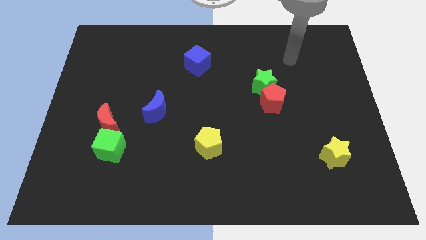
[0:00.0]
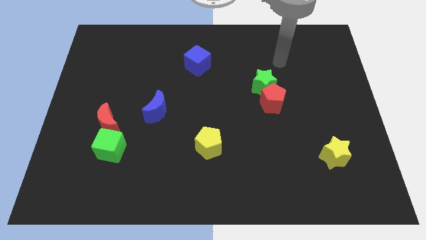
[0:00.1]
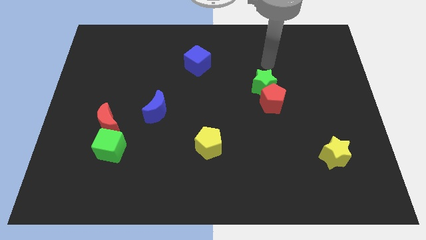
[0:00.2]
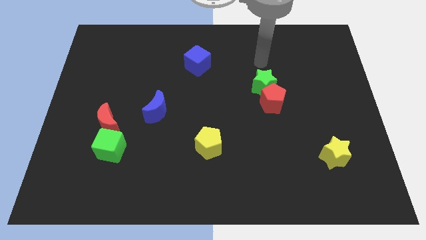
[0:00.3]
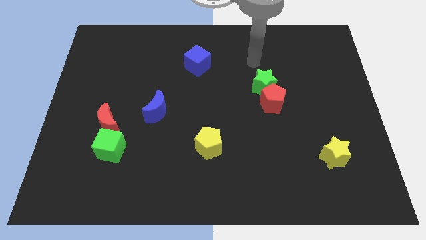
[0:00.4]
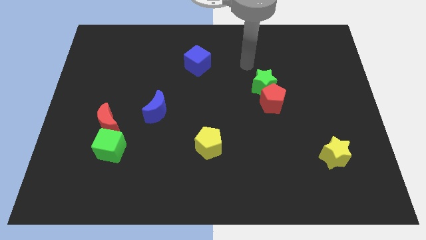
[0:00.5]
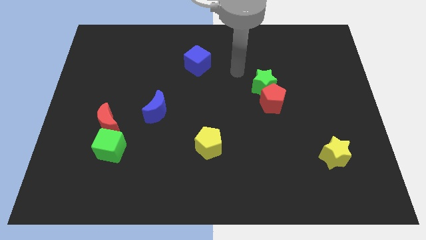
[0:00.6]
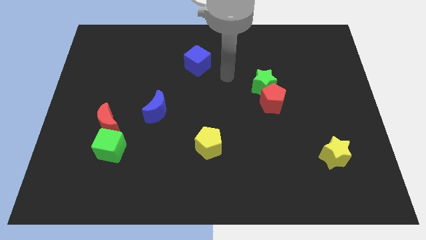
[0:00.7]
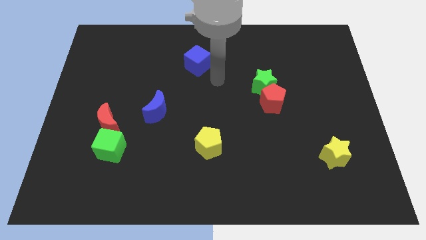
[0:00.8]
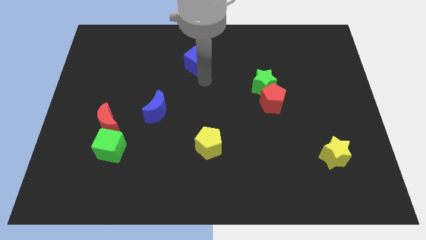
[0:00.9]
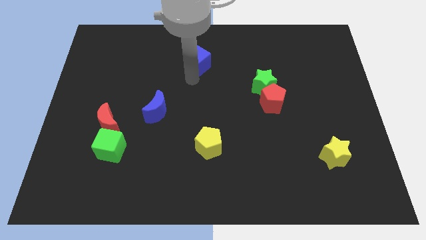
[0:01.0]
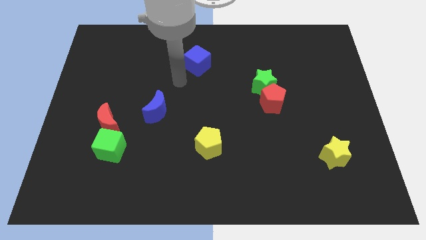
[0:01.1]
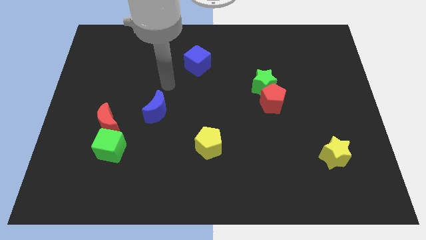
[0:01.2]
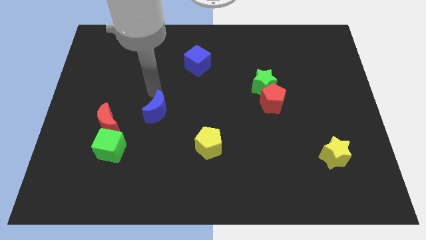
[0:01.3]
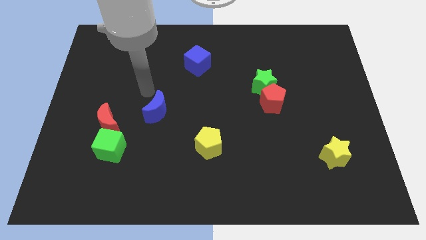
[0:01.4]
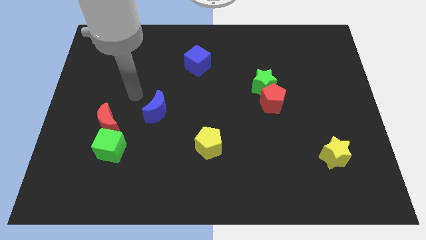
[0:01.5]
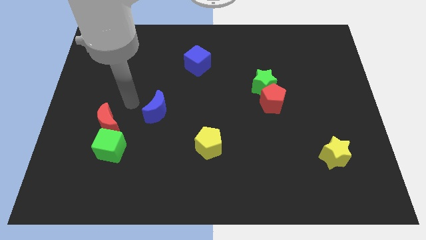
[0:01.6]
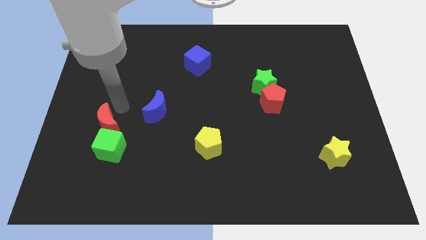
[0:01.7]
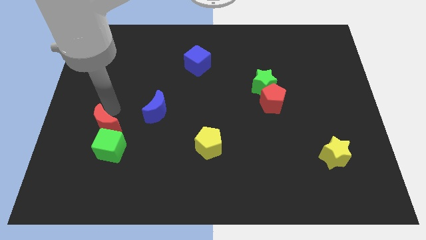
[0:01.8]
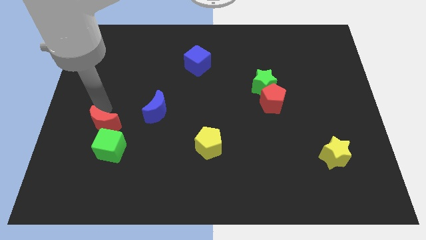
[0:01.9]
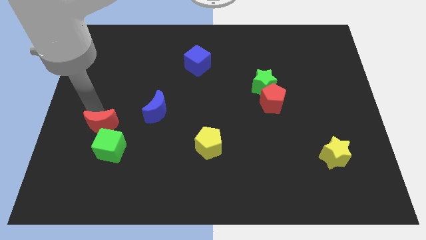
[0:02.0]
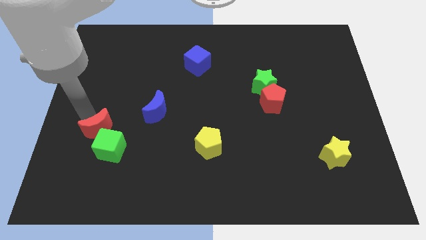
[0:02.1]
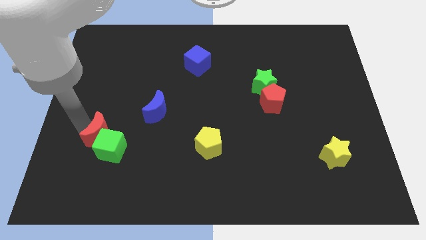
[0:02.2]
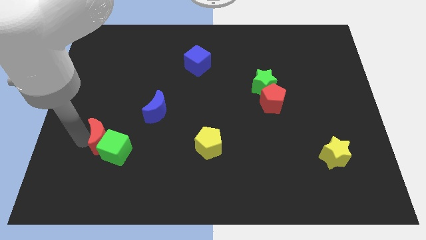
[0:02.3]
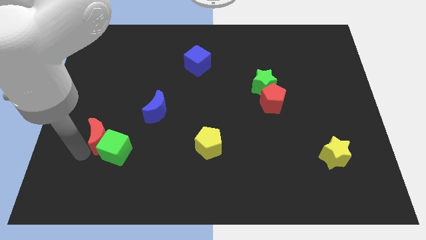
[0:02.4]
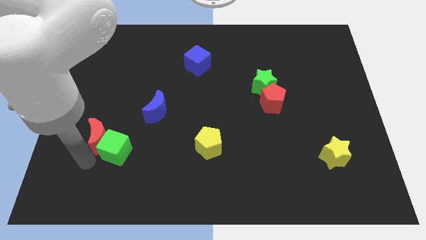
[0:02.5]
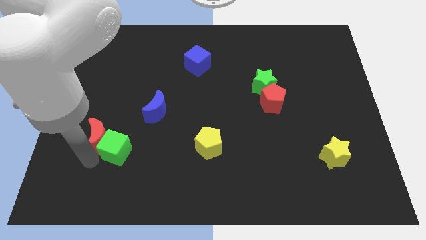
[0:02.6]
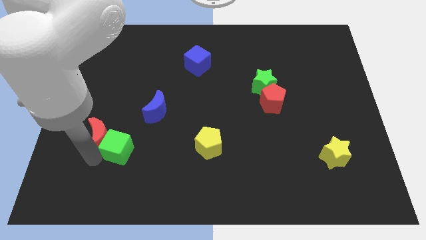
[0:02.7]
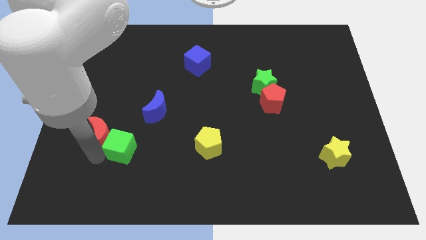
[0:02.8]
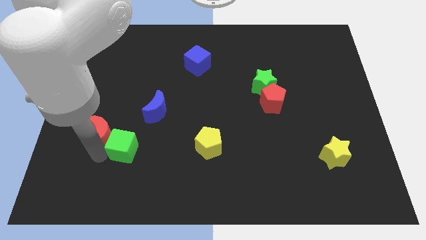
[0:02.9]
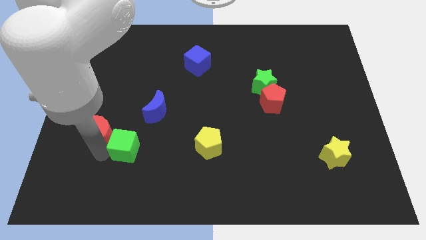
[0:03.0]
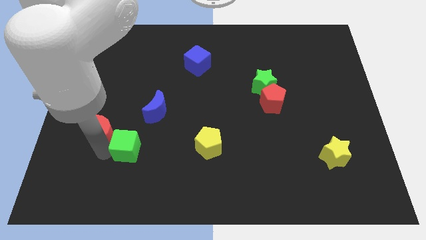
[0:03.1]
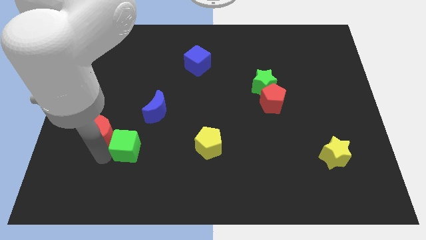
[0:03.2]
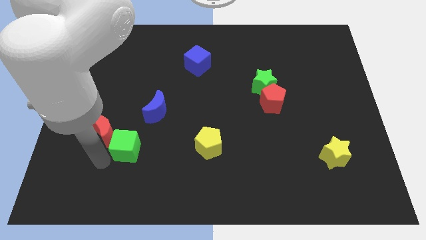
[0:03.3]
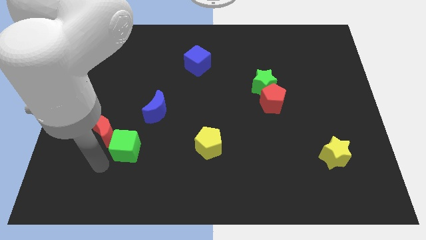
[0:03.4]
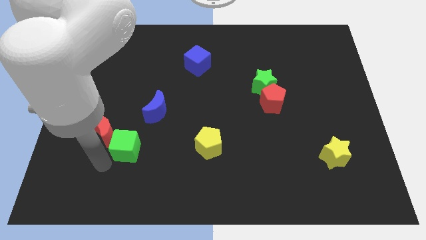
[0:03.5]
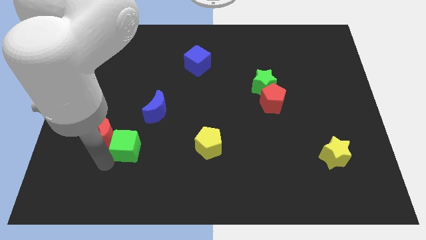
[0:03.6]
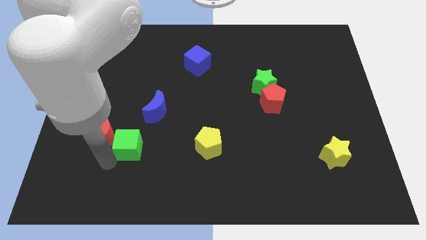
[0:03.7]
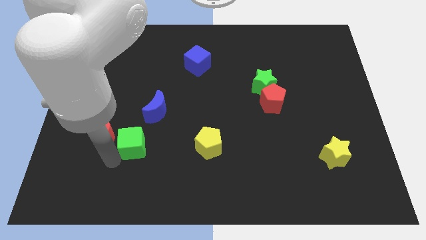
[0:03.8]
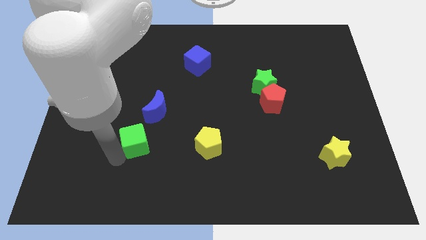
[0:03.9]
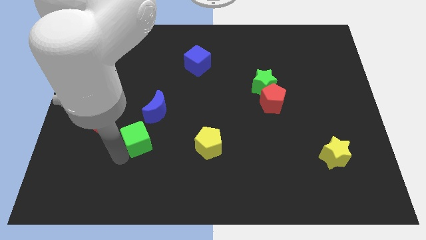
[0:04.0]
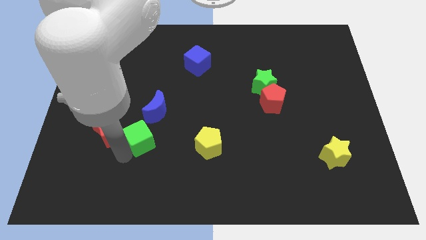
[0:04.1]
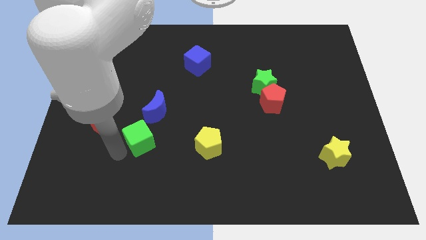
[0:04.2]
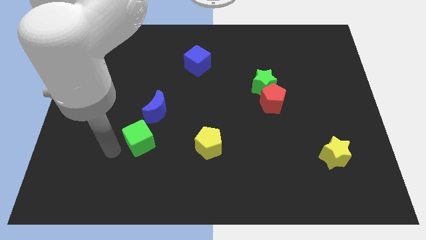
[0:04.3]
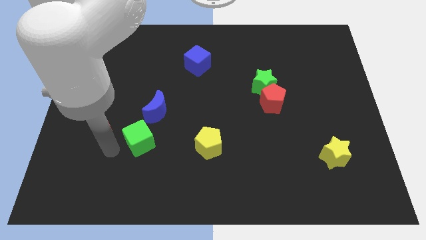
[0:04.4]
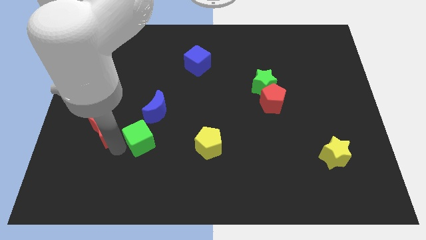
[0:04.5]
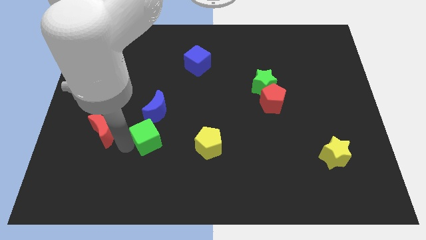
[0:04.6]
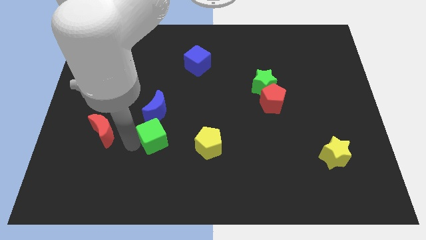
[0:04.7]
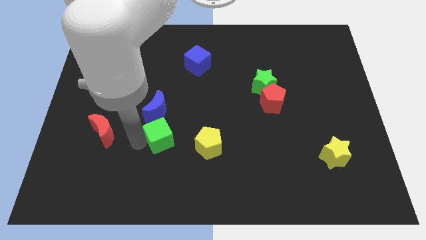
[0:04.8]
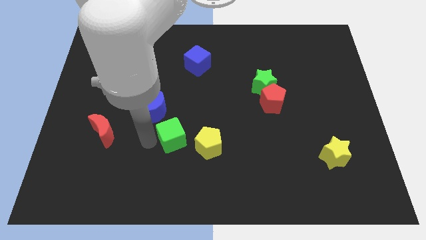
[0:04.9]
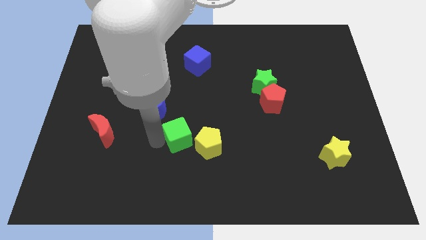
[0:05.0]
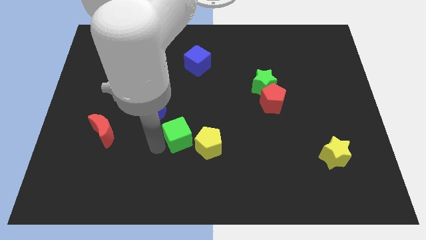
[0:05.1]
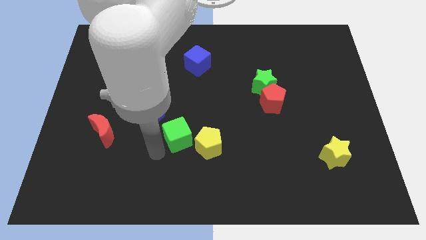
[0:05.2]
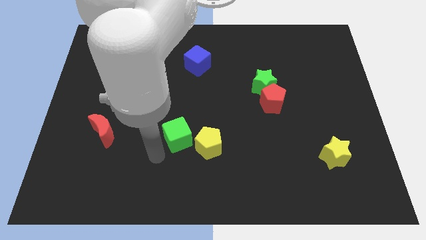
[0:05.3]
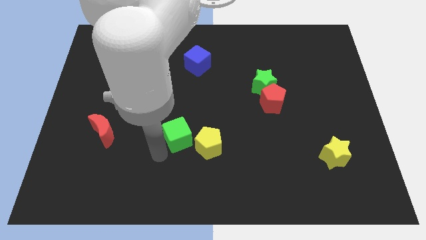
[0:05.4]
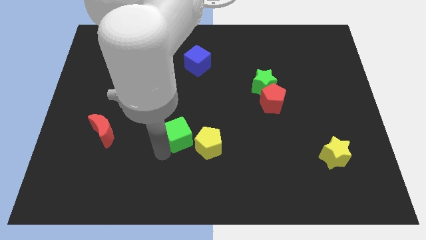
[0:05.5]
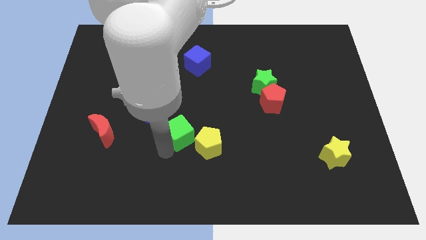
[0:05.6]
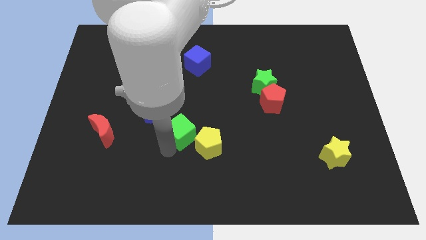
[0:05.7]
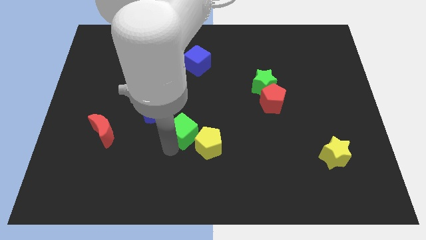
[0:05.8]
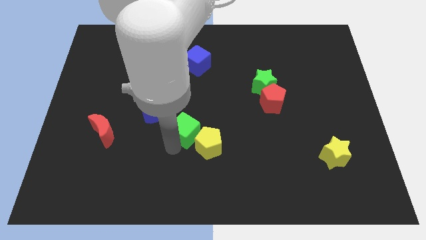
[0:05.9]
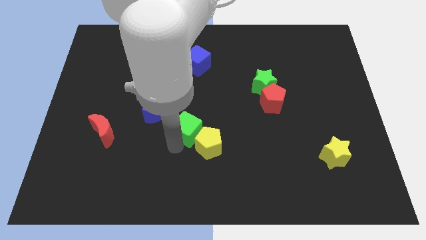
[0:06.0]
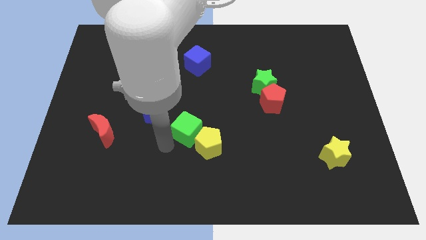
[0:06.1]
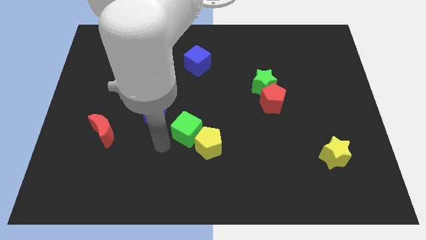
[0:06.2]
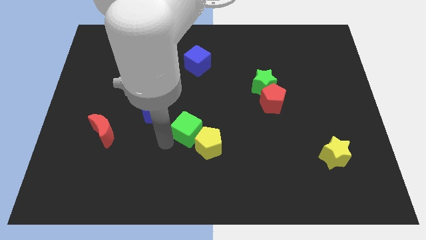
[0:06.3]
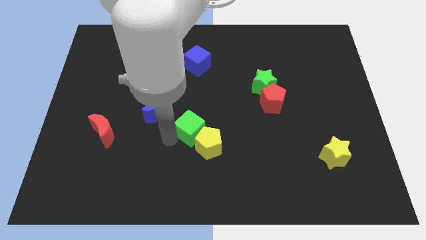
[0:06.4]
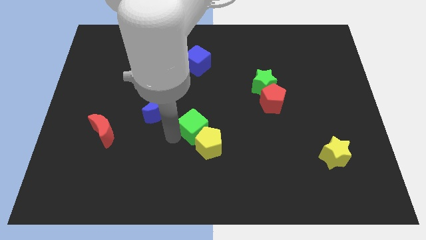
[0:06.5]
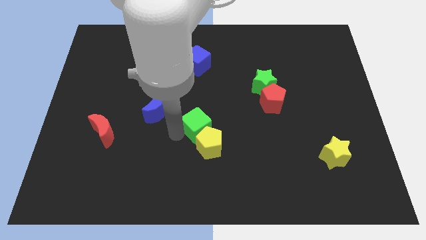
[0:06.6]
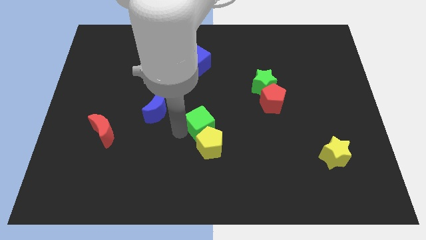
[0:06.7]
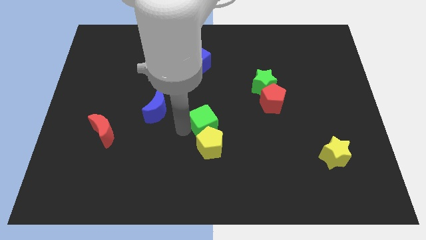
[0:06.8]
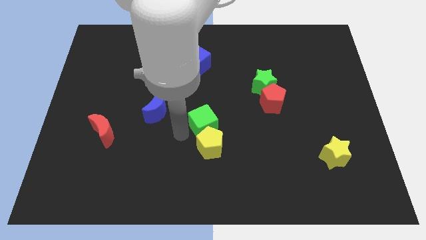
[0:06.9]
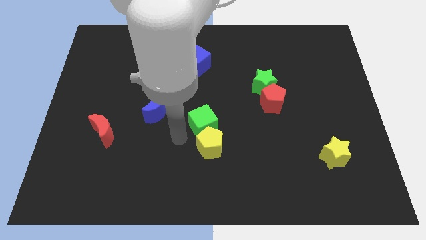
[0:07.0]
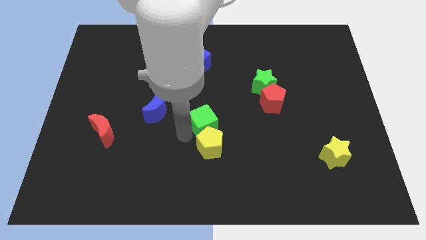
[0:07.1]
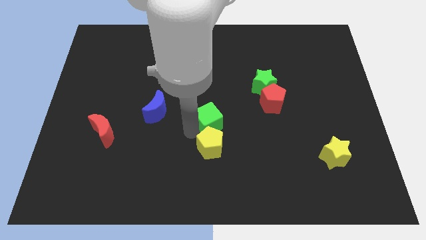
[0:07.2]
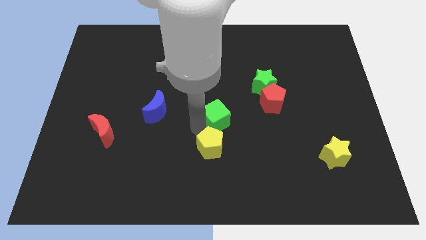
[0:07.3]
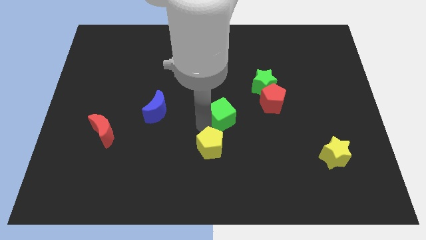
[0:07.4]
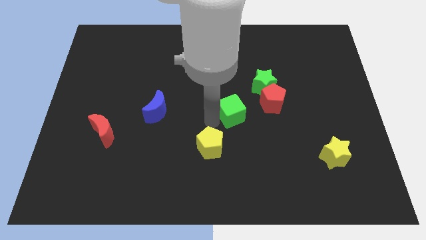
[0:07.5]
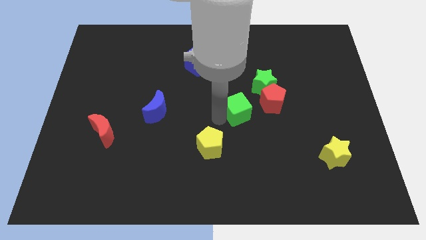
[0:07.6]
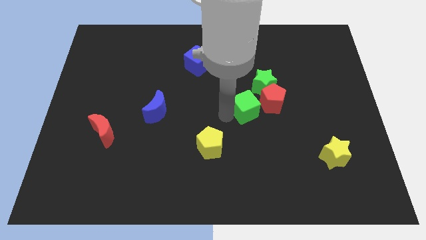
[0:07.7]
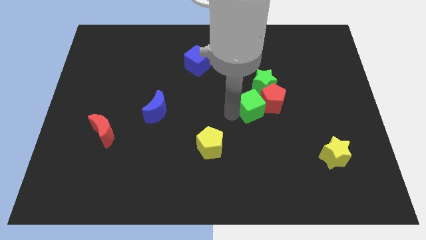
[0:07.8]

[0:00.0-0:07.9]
slide the green cube next to the red pentagon
